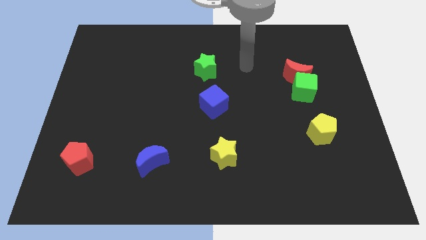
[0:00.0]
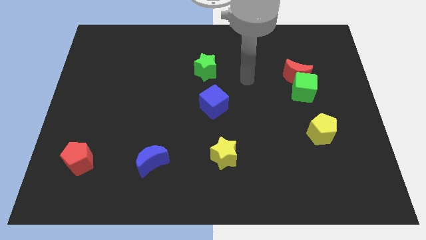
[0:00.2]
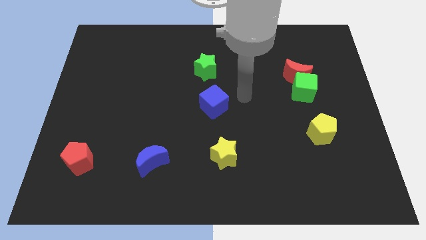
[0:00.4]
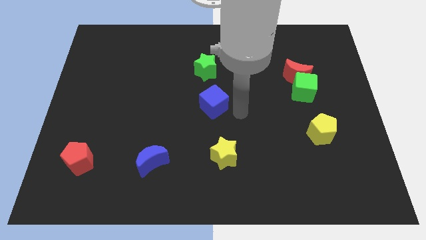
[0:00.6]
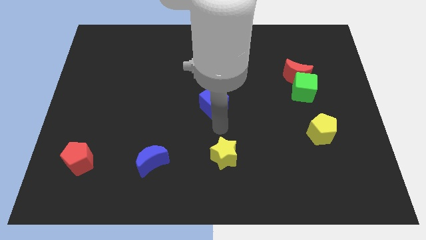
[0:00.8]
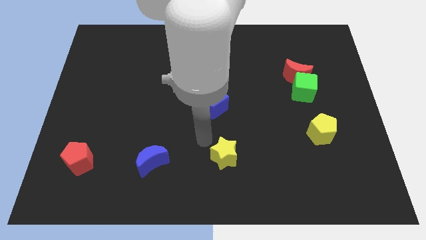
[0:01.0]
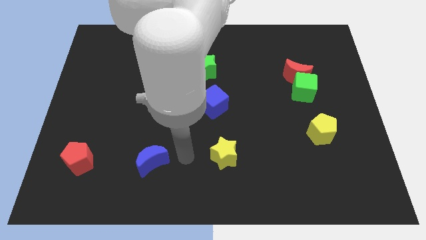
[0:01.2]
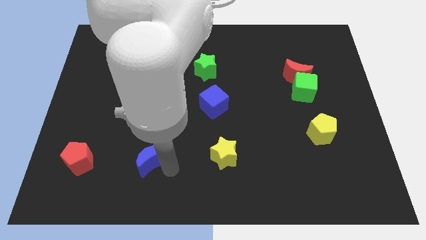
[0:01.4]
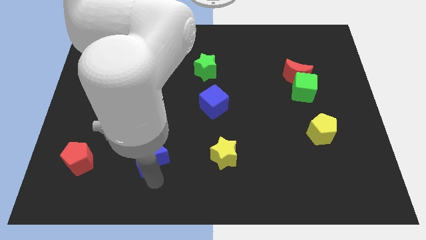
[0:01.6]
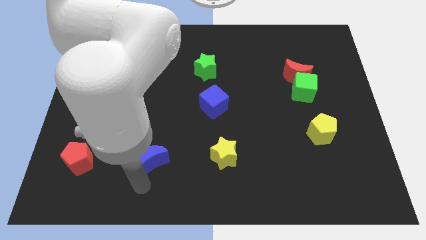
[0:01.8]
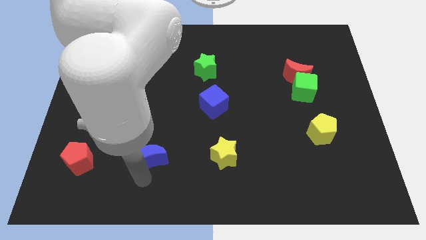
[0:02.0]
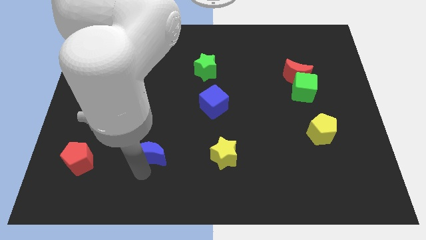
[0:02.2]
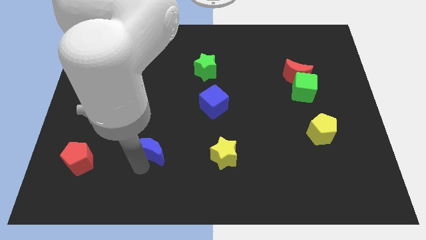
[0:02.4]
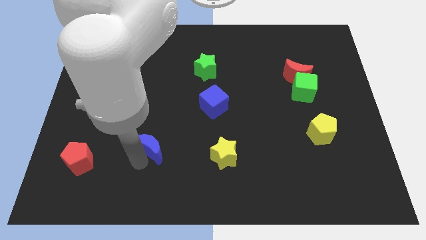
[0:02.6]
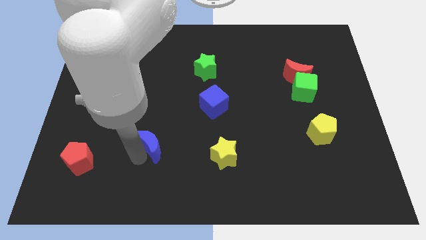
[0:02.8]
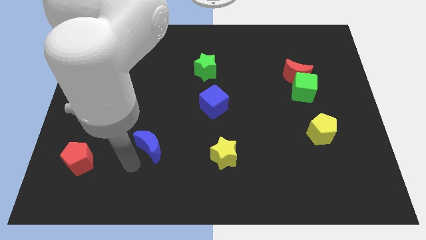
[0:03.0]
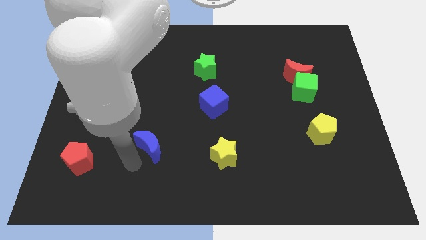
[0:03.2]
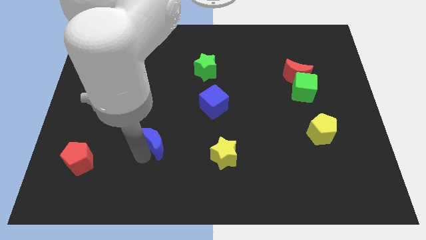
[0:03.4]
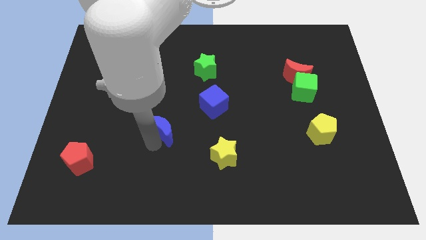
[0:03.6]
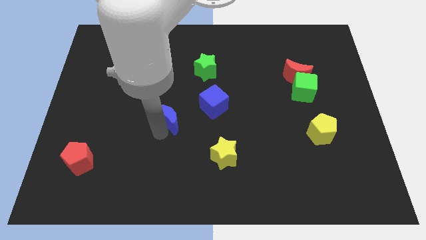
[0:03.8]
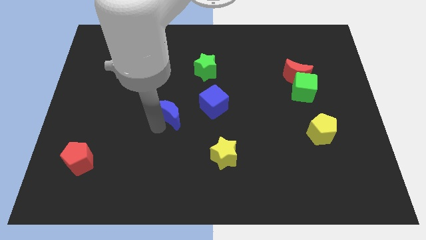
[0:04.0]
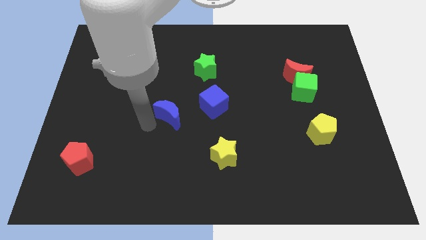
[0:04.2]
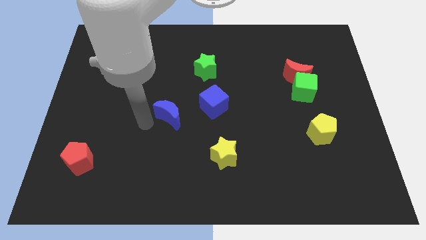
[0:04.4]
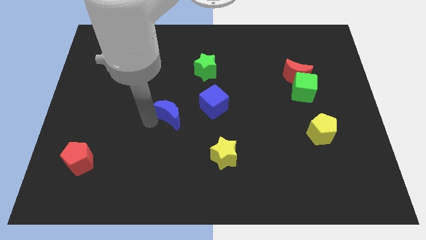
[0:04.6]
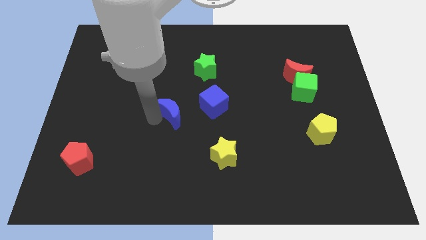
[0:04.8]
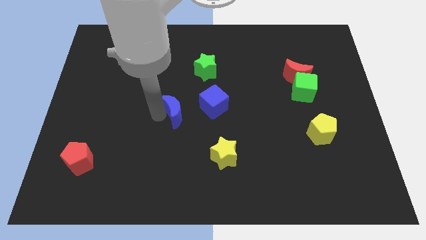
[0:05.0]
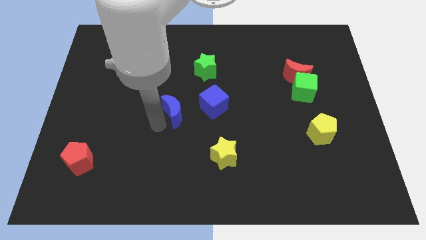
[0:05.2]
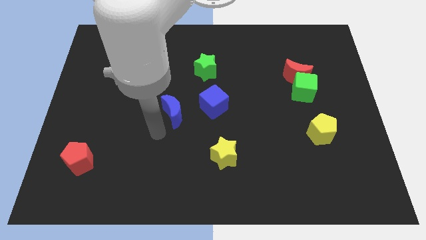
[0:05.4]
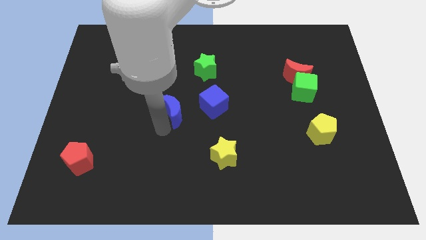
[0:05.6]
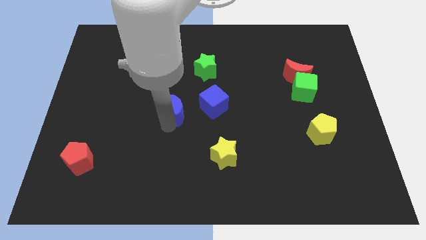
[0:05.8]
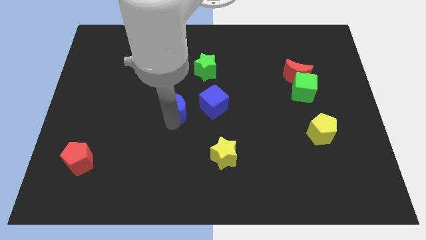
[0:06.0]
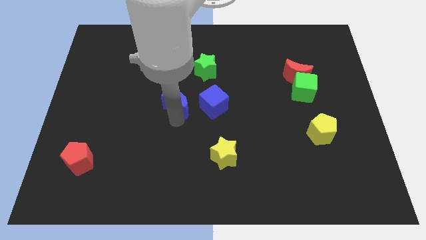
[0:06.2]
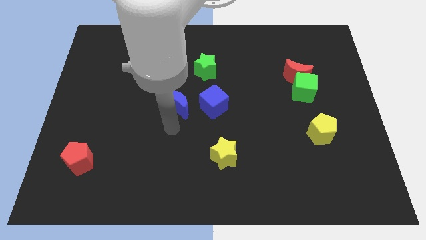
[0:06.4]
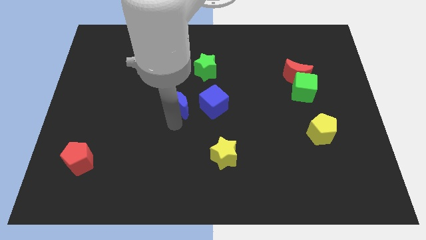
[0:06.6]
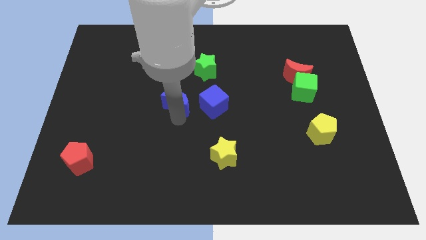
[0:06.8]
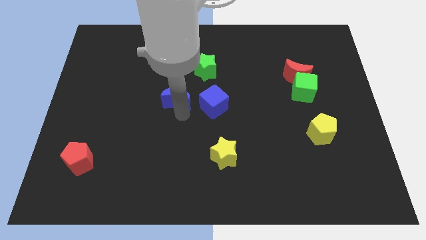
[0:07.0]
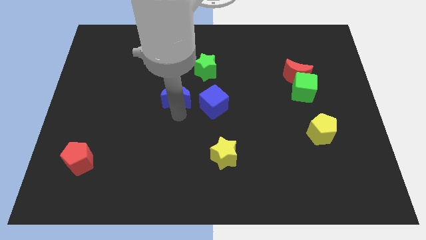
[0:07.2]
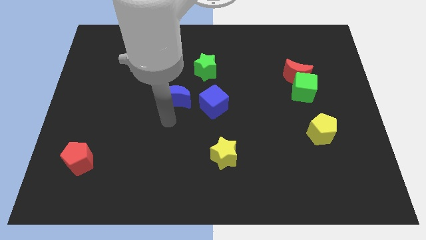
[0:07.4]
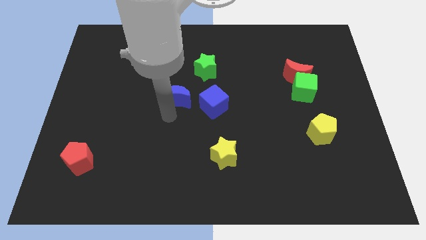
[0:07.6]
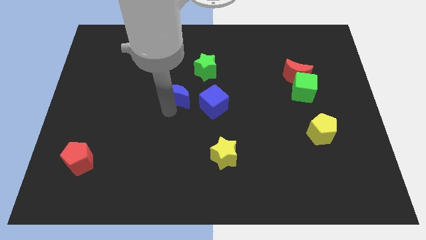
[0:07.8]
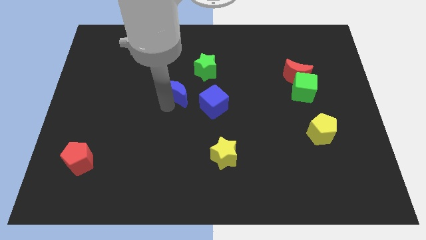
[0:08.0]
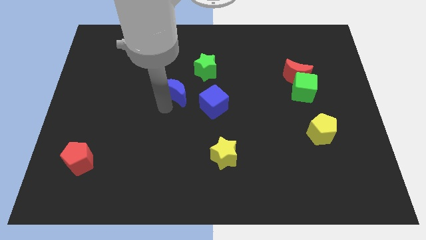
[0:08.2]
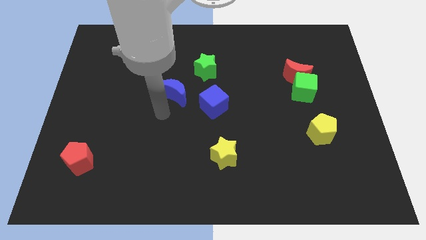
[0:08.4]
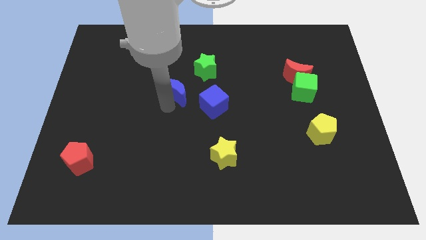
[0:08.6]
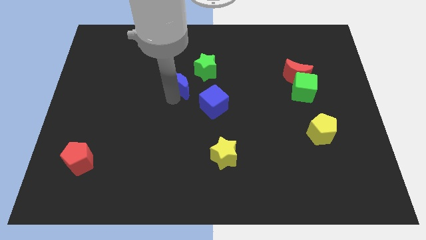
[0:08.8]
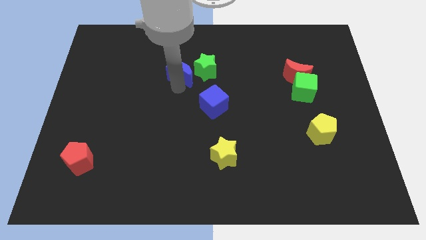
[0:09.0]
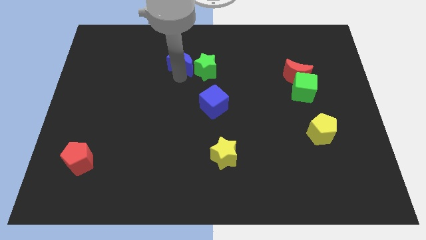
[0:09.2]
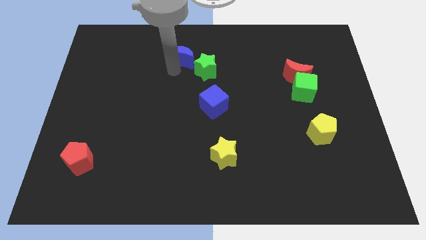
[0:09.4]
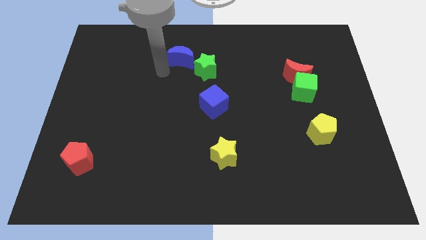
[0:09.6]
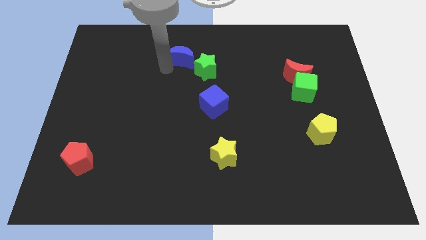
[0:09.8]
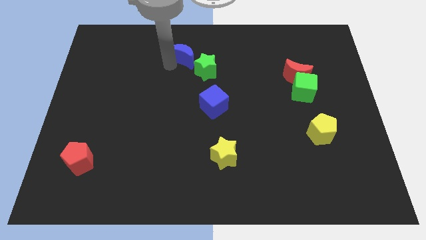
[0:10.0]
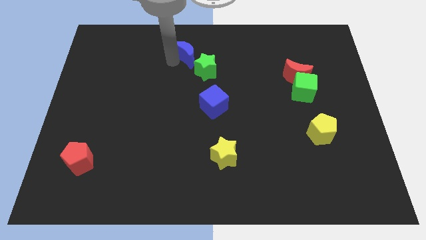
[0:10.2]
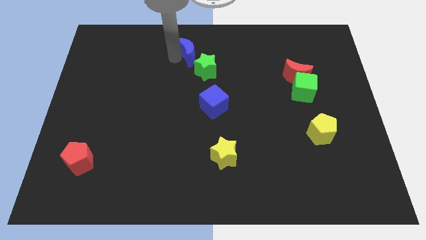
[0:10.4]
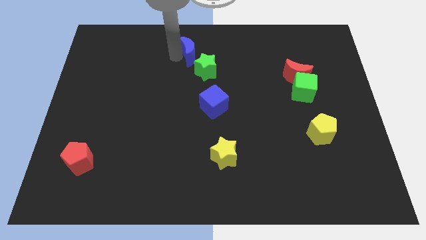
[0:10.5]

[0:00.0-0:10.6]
move the blue moon to the towards your base
